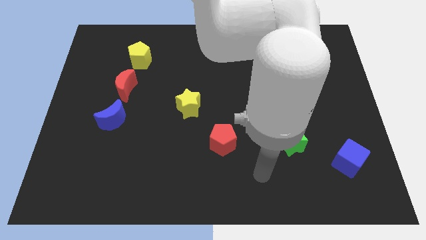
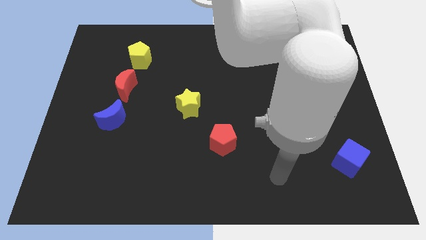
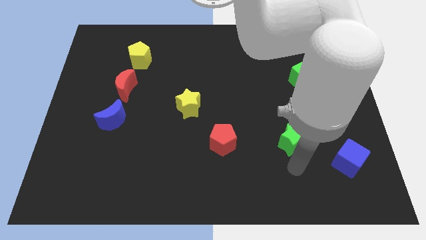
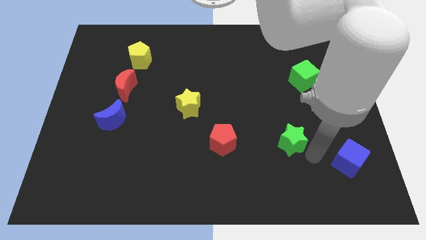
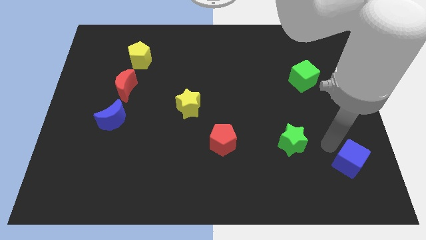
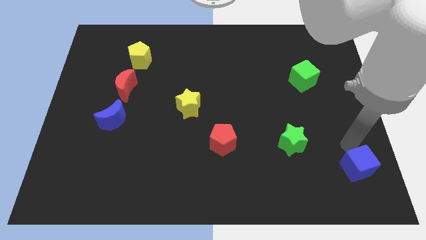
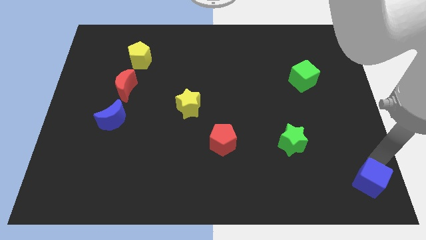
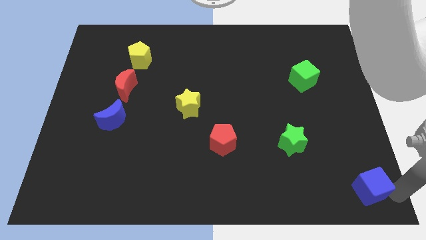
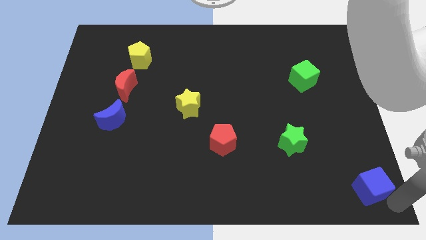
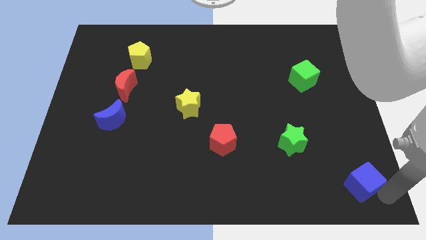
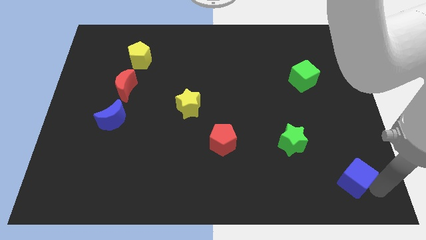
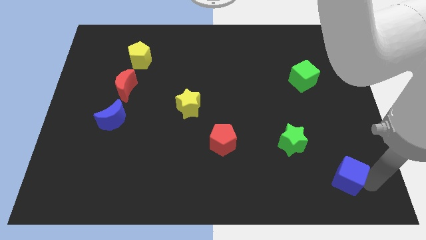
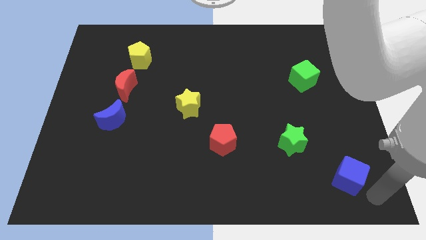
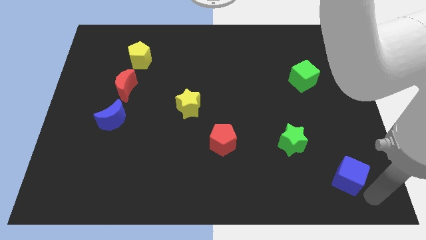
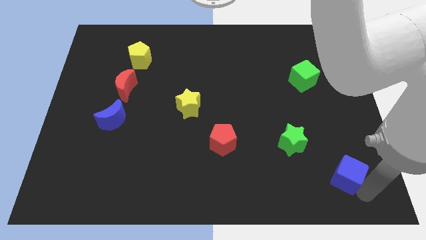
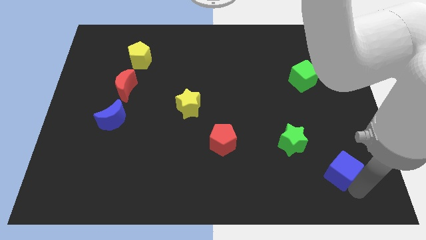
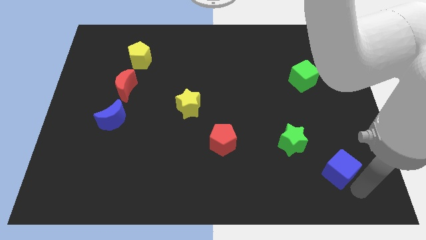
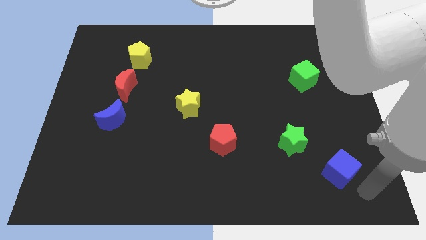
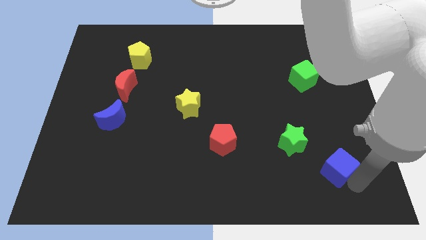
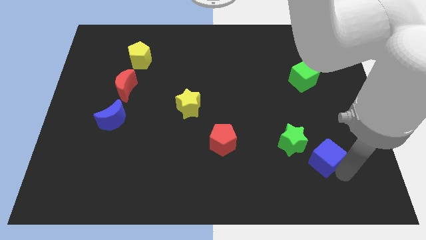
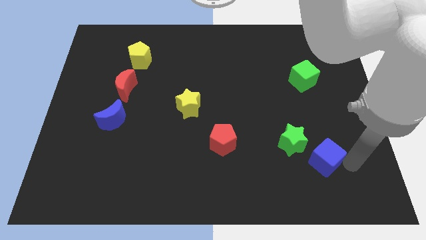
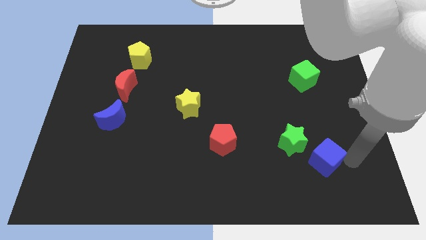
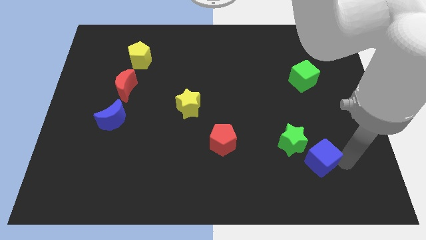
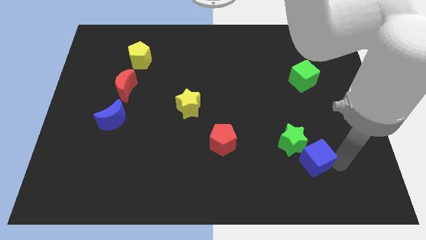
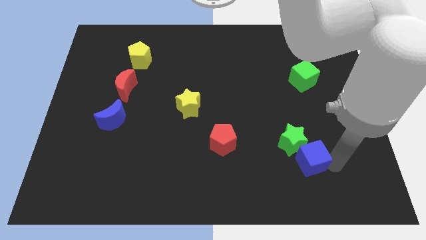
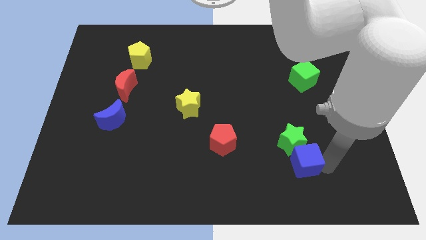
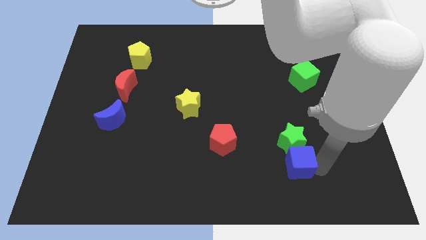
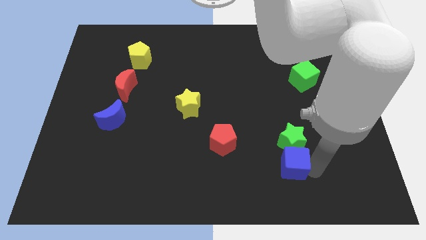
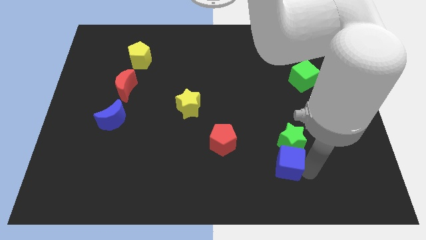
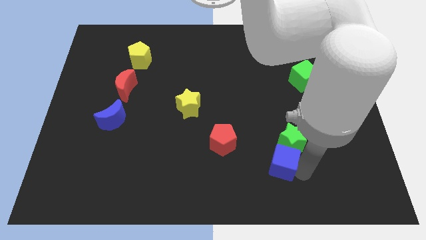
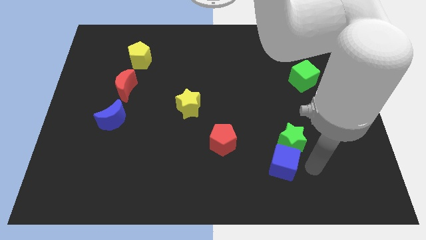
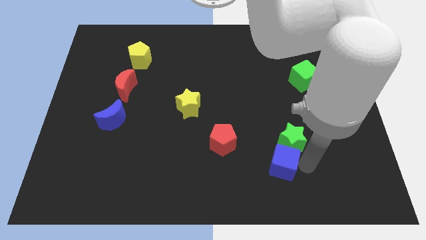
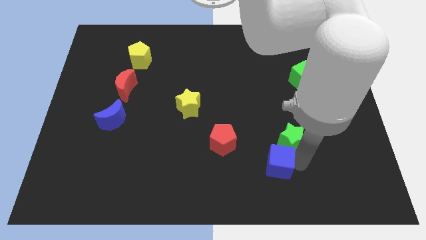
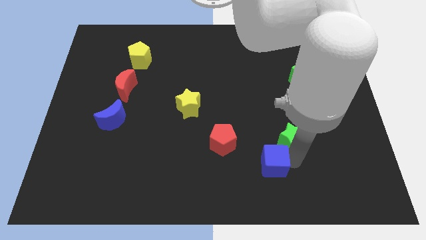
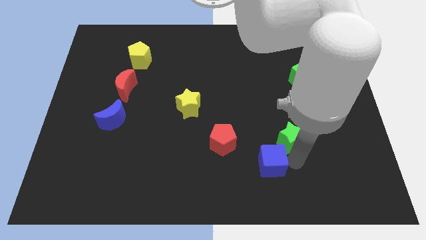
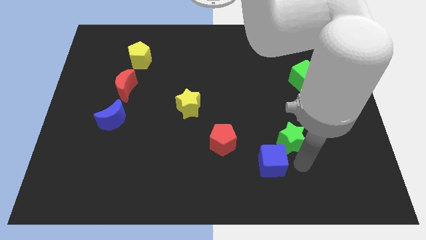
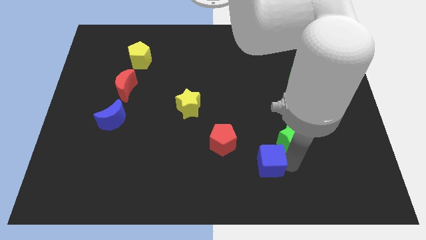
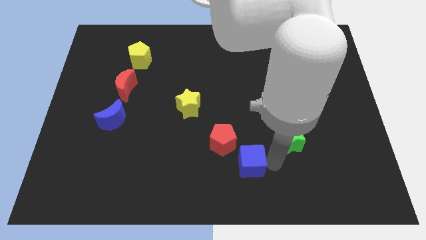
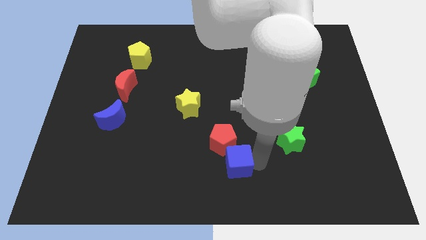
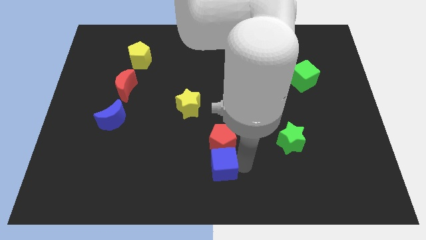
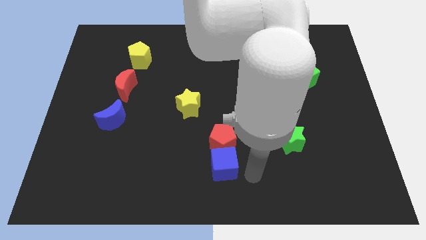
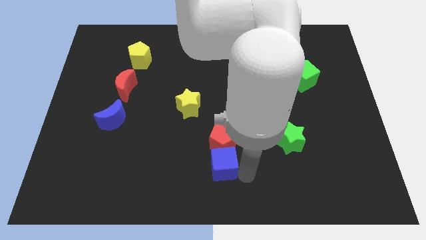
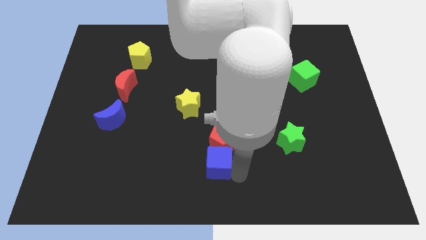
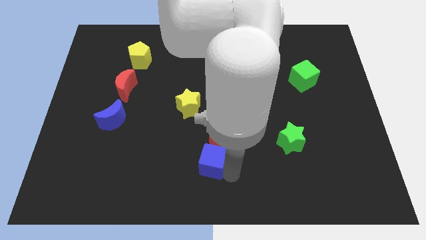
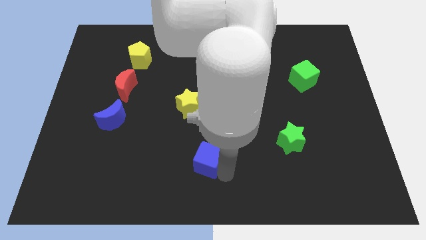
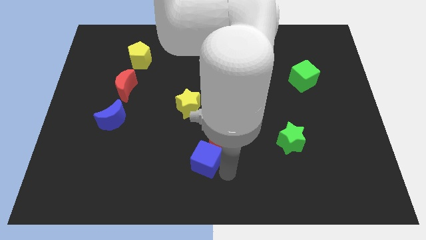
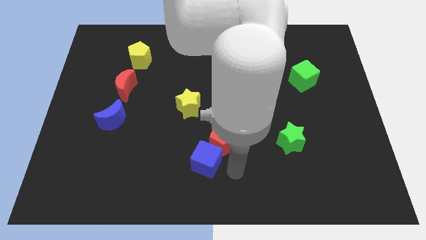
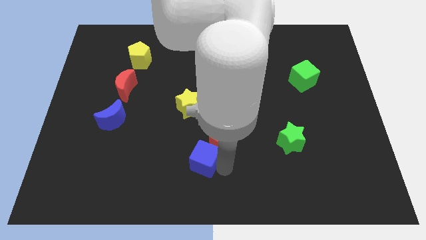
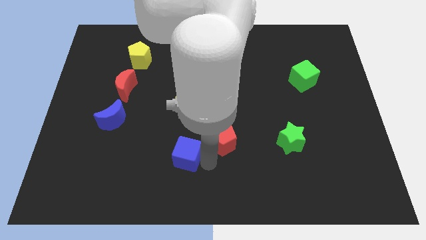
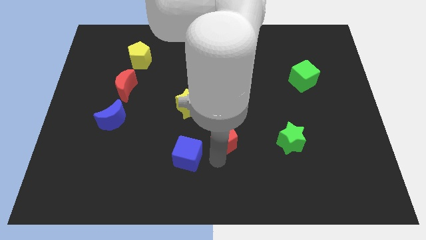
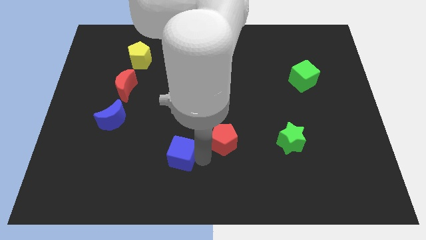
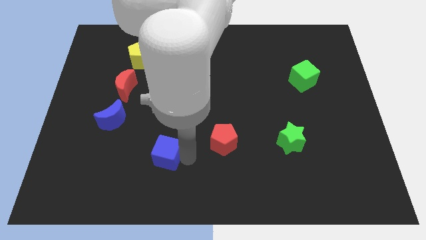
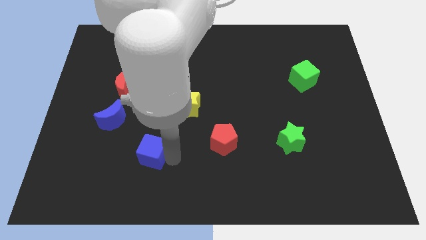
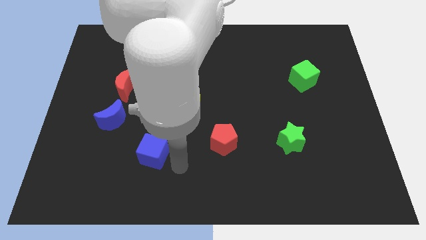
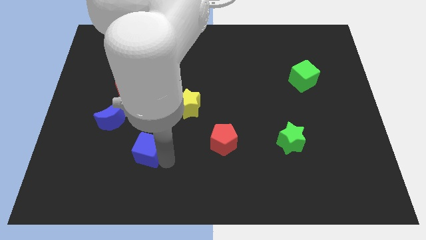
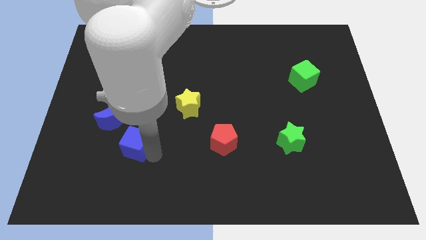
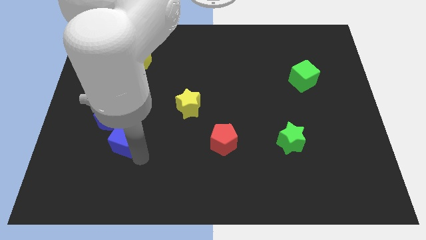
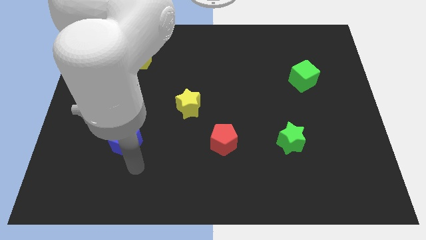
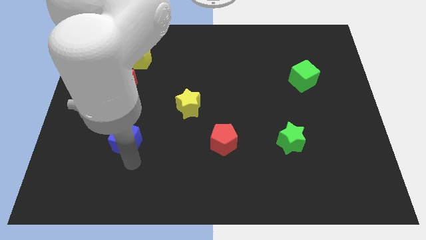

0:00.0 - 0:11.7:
slide the blue cube below the red moon

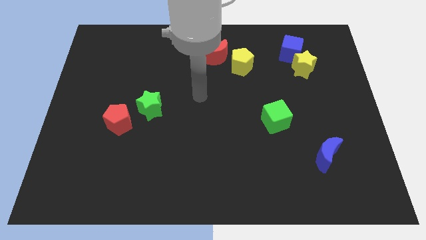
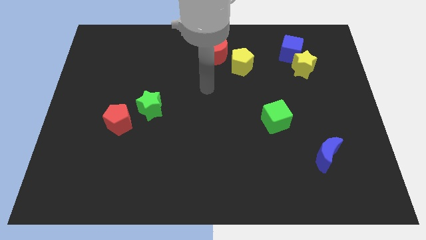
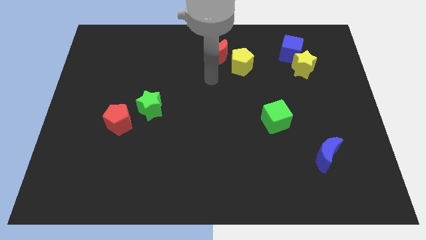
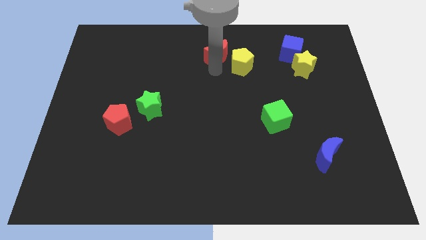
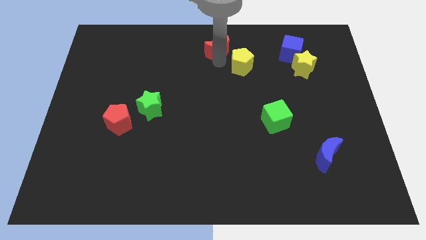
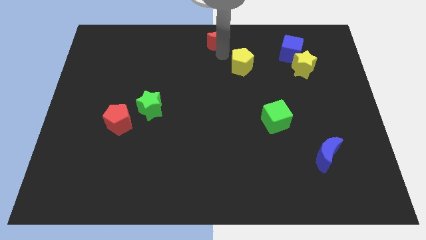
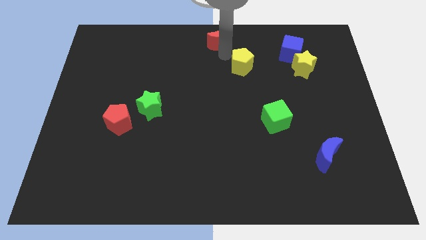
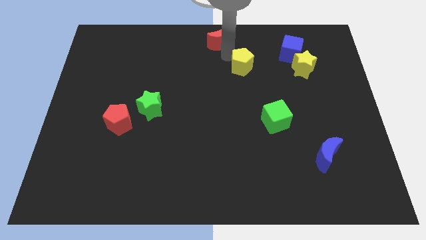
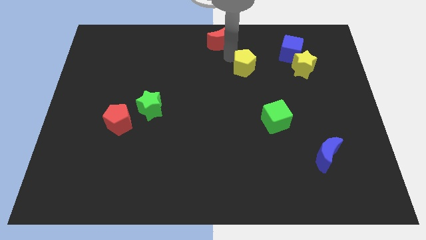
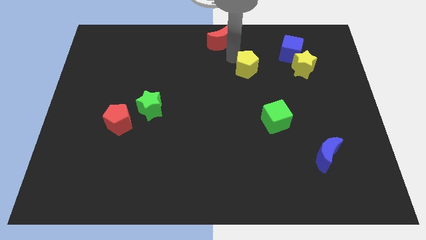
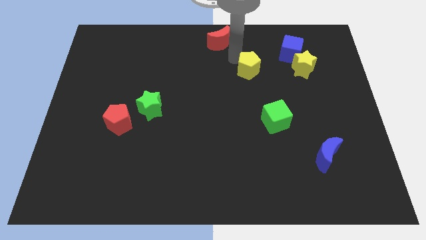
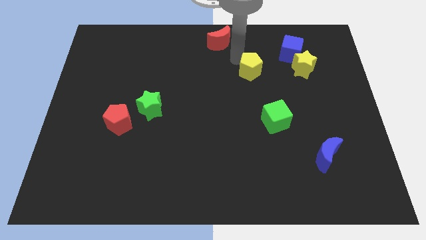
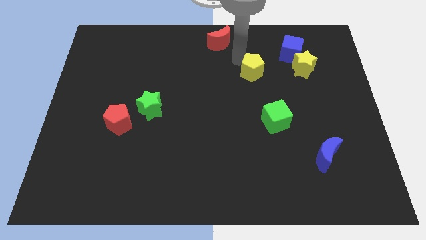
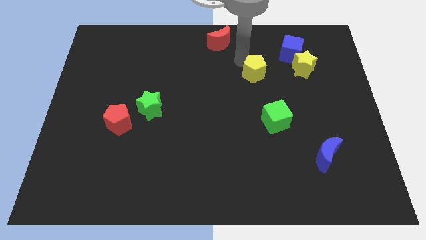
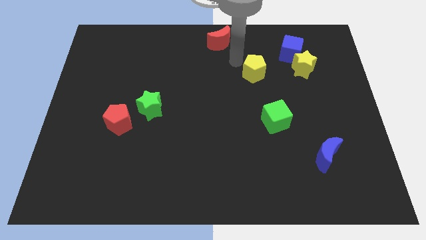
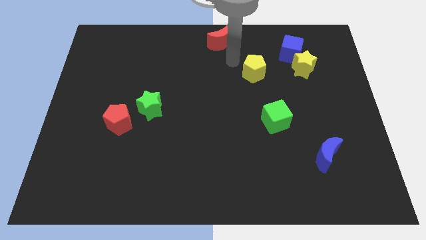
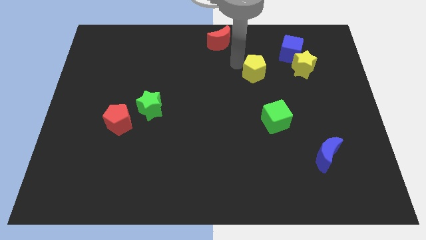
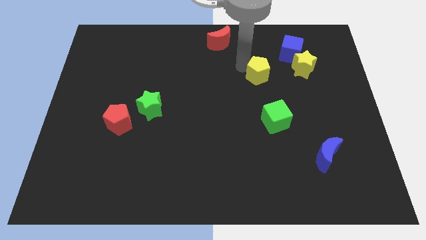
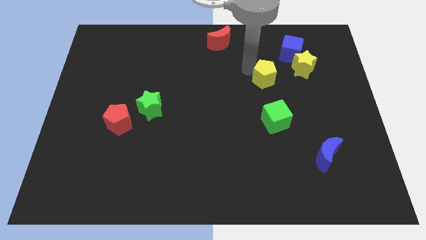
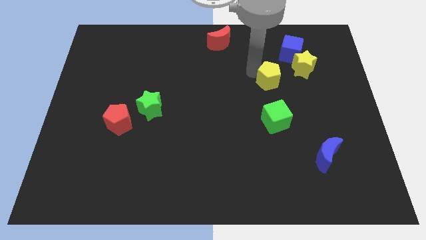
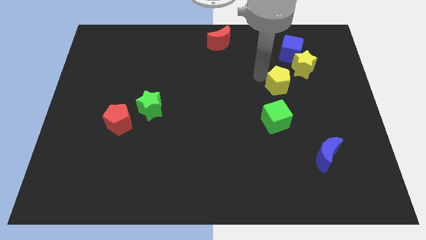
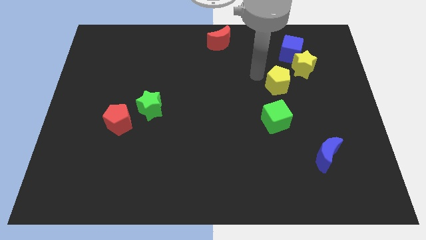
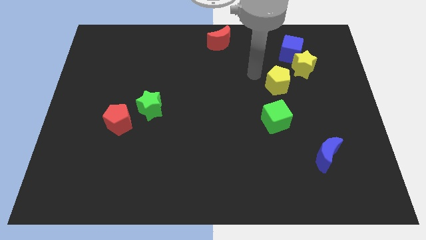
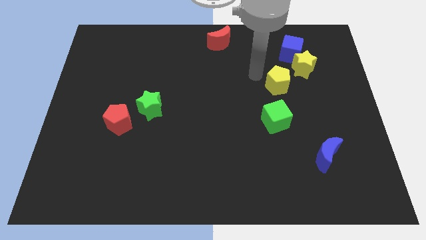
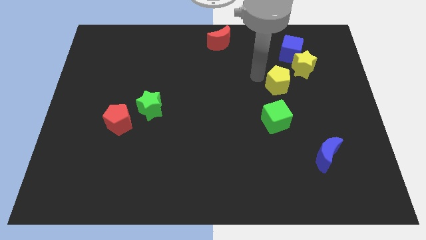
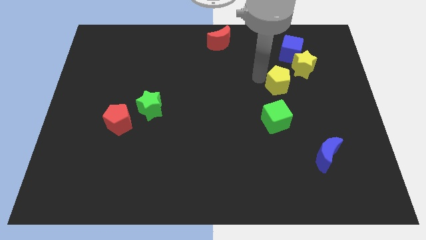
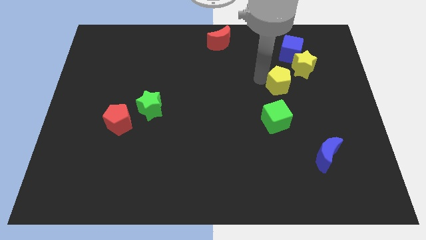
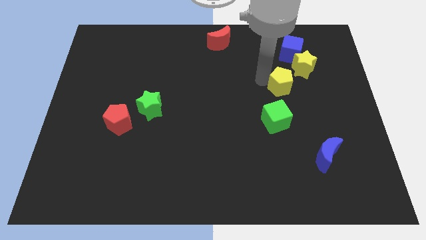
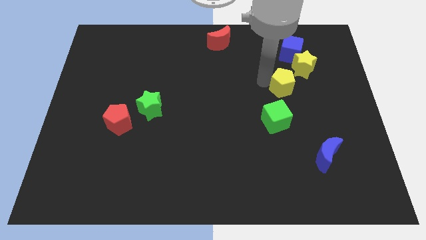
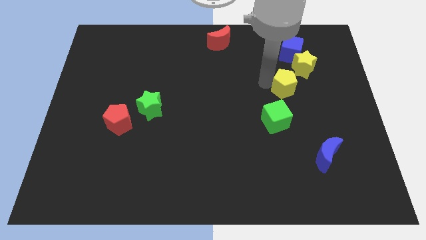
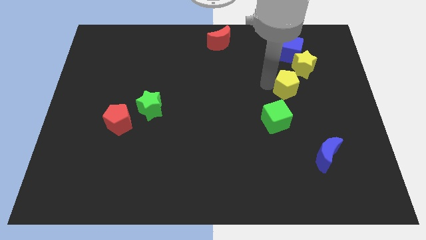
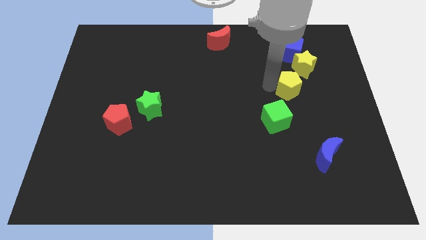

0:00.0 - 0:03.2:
put the yellow pentagon to the bottom of the yellow star
